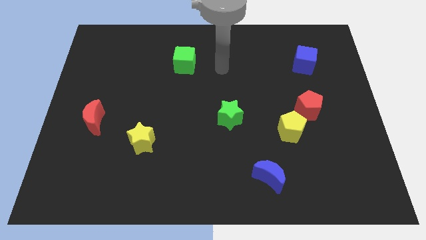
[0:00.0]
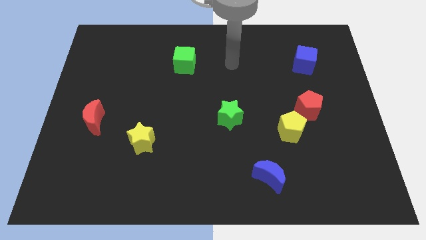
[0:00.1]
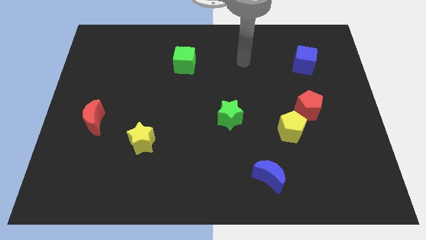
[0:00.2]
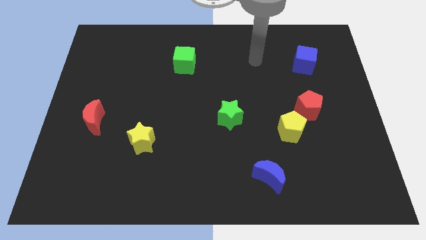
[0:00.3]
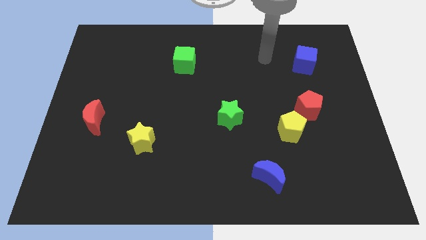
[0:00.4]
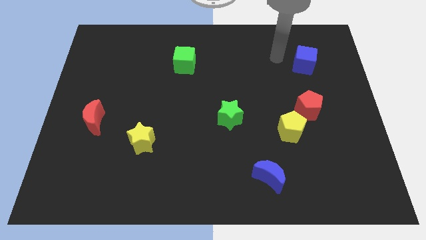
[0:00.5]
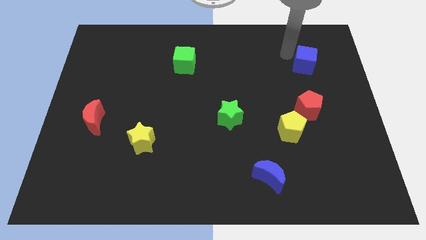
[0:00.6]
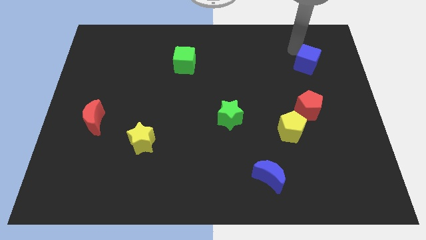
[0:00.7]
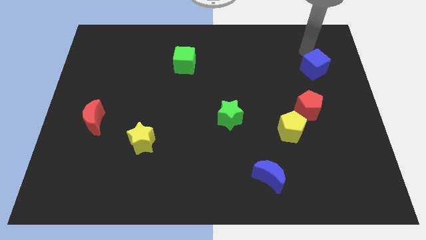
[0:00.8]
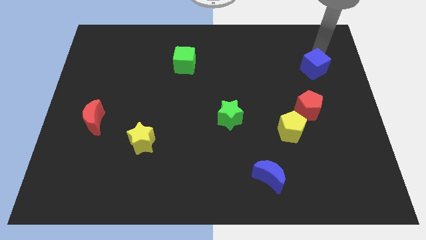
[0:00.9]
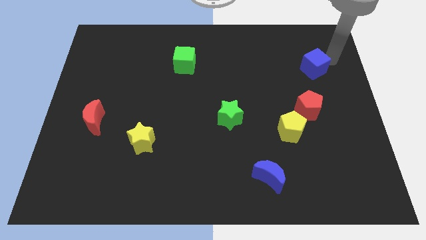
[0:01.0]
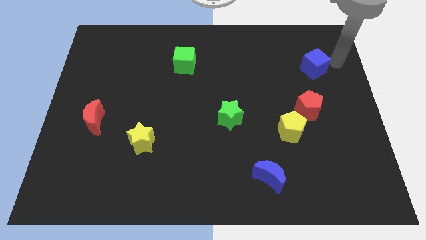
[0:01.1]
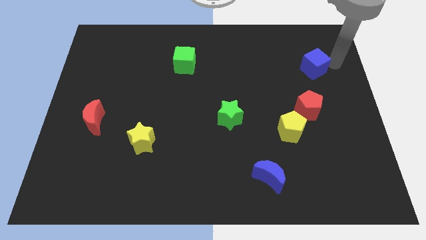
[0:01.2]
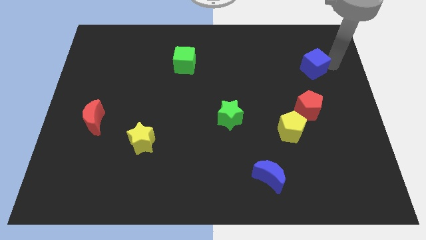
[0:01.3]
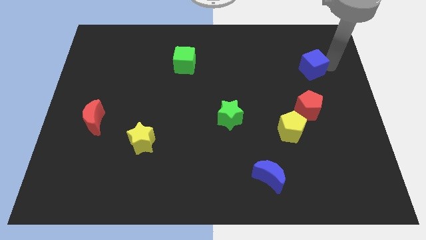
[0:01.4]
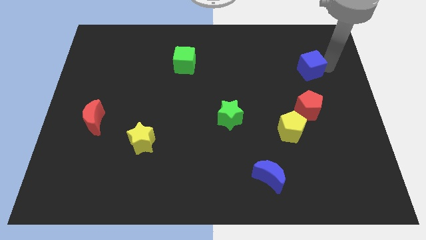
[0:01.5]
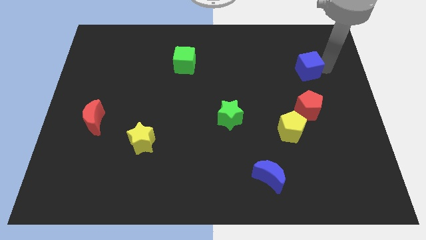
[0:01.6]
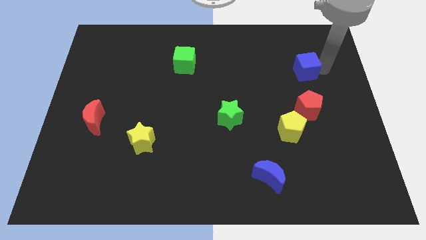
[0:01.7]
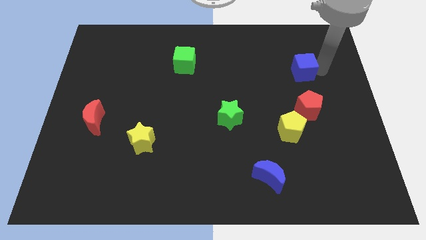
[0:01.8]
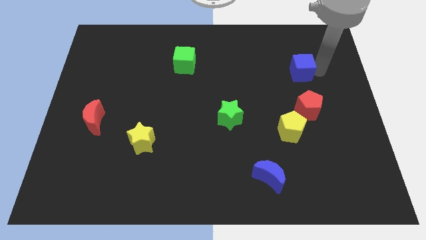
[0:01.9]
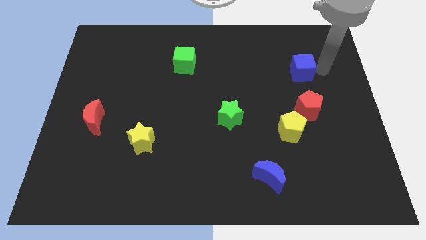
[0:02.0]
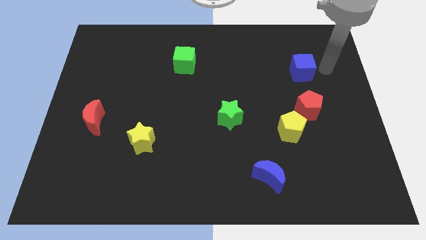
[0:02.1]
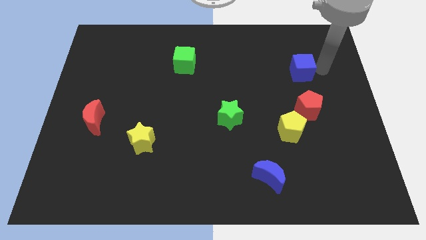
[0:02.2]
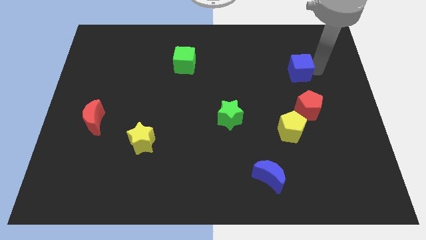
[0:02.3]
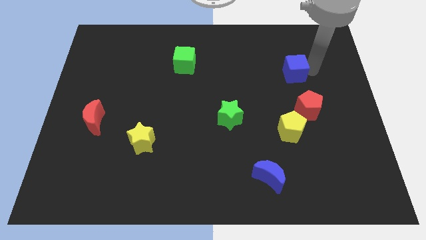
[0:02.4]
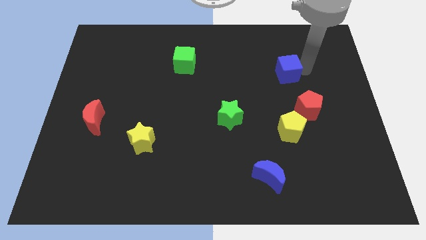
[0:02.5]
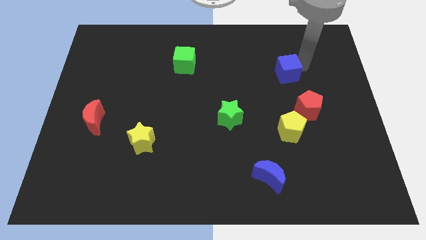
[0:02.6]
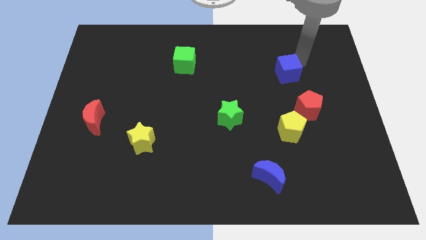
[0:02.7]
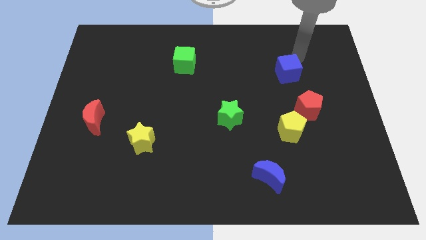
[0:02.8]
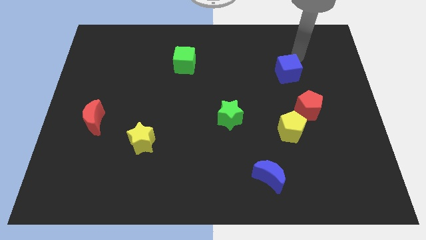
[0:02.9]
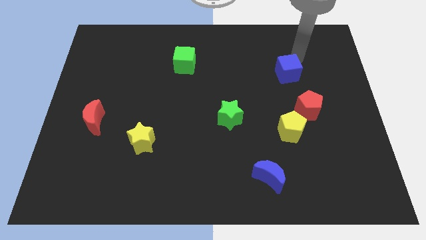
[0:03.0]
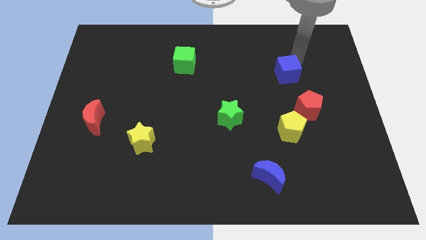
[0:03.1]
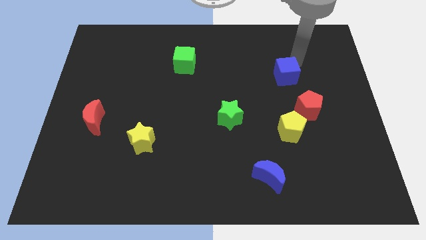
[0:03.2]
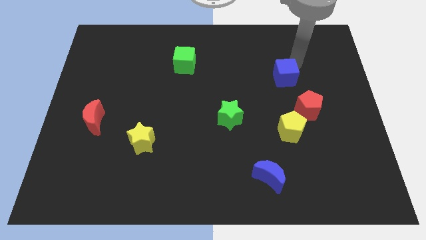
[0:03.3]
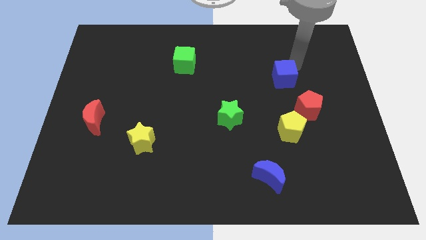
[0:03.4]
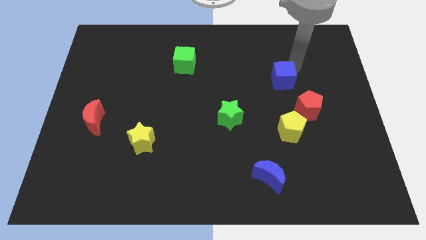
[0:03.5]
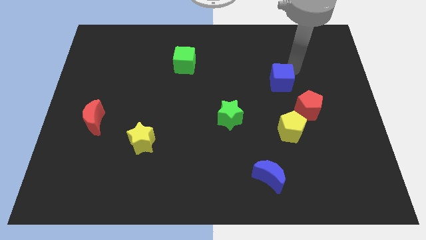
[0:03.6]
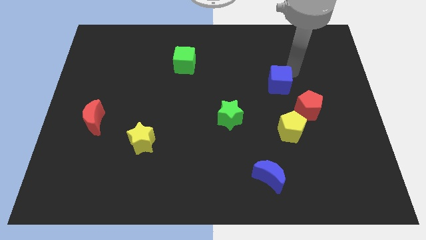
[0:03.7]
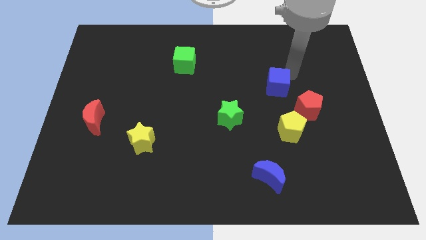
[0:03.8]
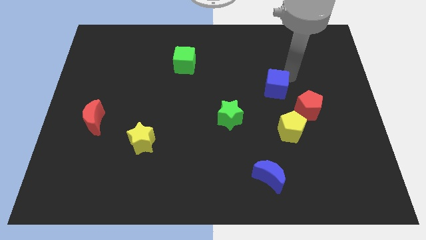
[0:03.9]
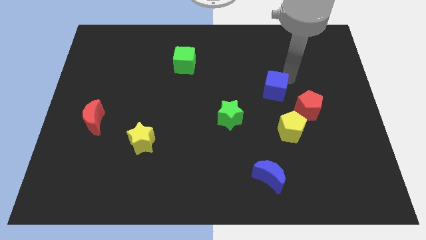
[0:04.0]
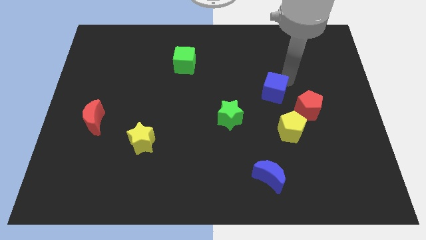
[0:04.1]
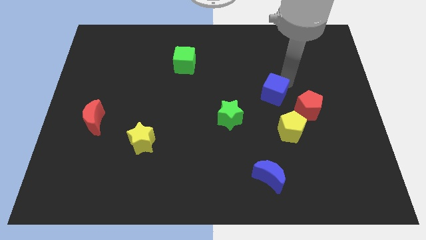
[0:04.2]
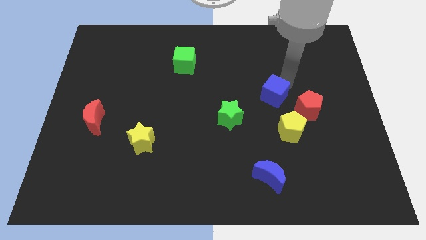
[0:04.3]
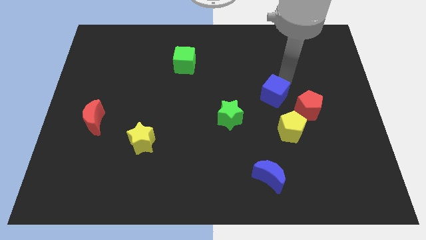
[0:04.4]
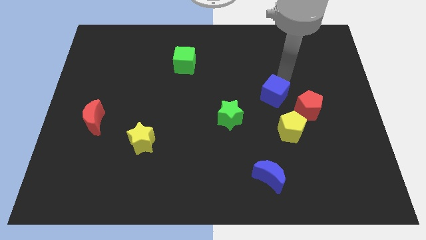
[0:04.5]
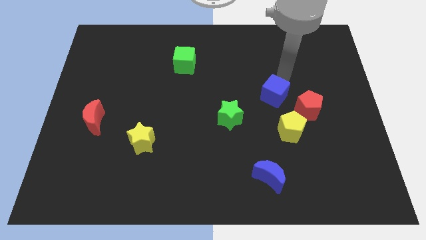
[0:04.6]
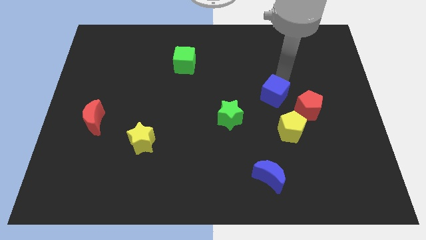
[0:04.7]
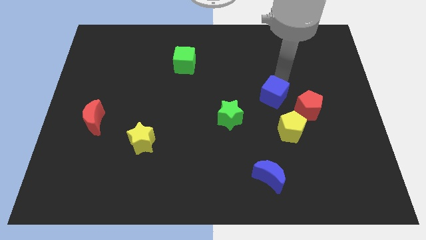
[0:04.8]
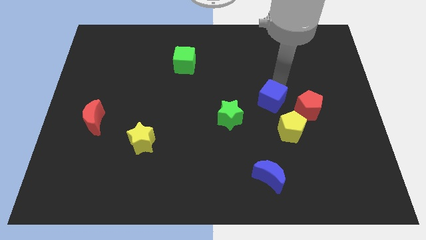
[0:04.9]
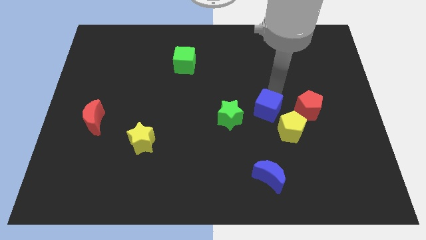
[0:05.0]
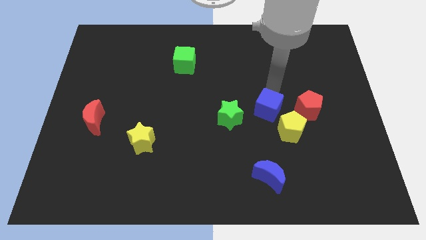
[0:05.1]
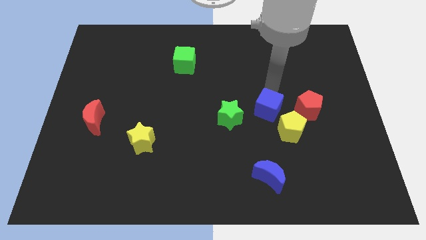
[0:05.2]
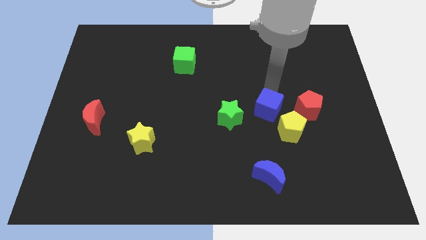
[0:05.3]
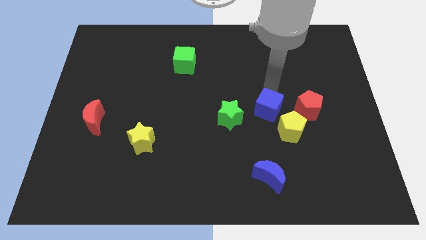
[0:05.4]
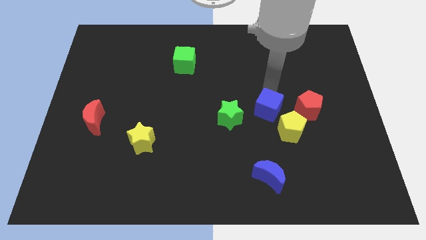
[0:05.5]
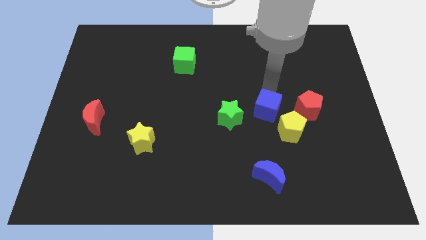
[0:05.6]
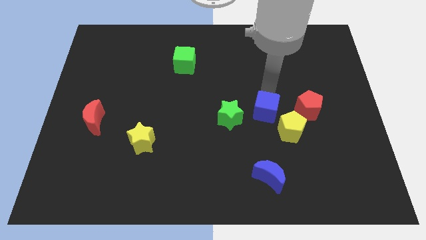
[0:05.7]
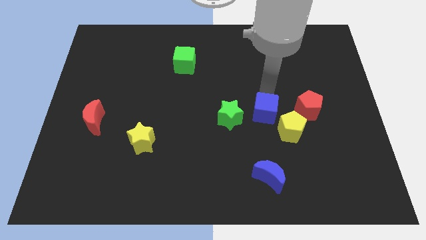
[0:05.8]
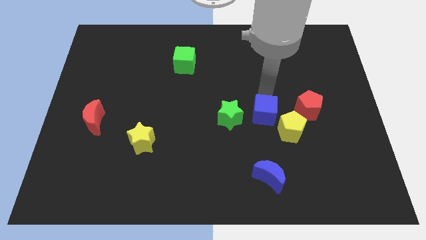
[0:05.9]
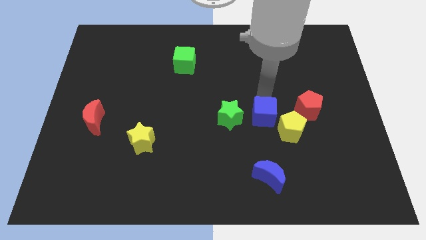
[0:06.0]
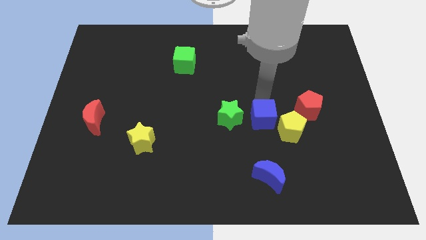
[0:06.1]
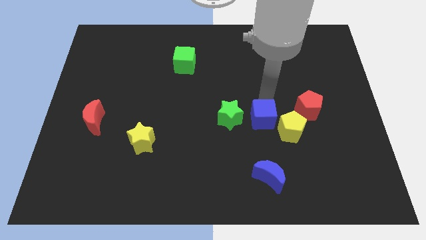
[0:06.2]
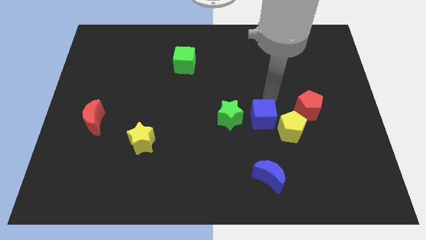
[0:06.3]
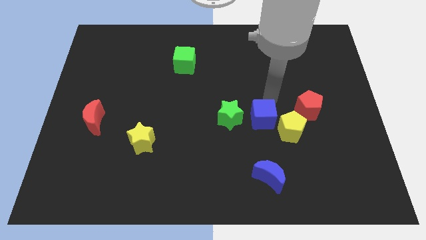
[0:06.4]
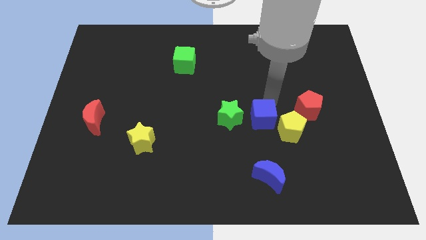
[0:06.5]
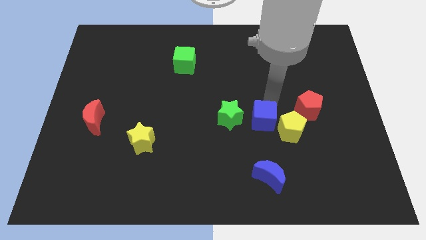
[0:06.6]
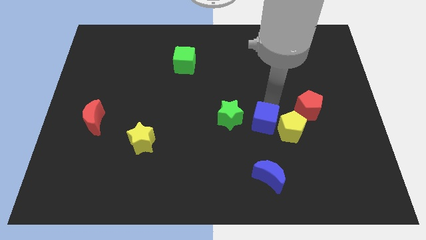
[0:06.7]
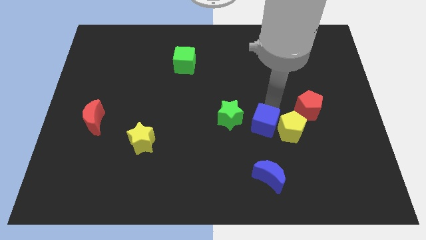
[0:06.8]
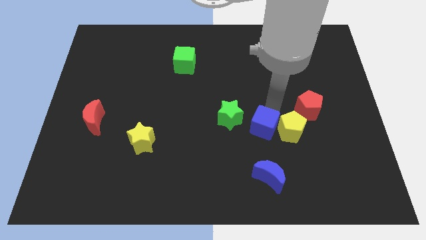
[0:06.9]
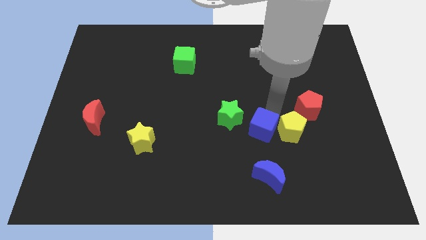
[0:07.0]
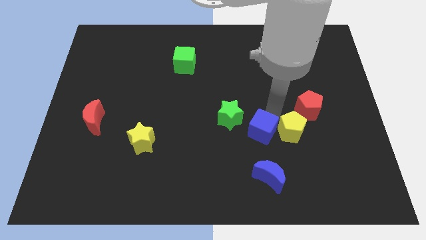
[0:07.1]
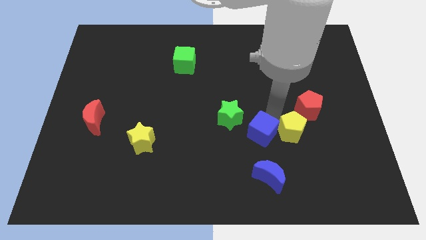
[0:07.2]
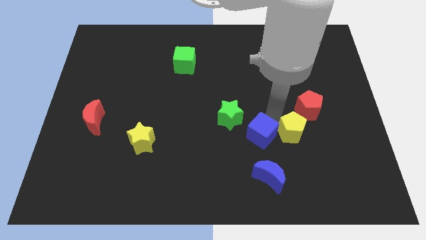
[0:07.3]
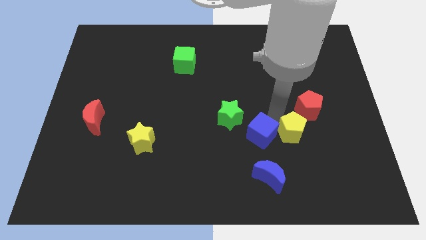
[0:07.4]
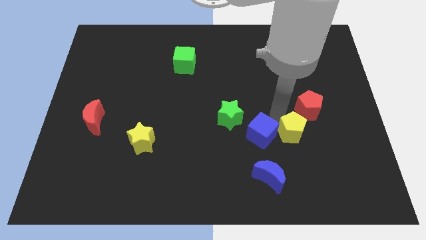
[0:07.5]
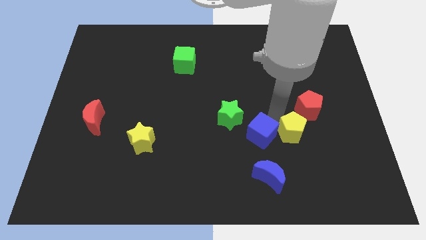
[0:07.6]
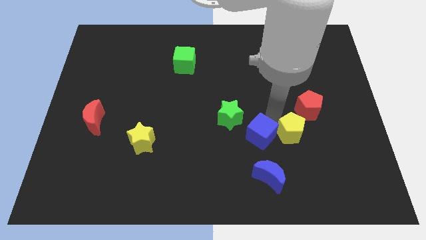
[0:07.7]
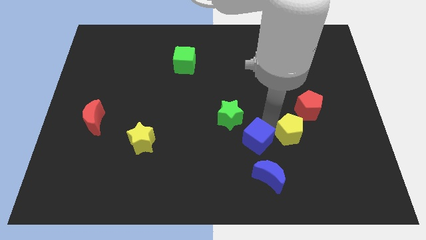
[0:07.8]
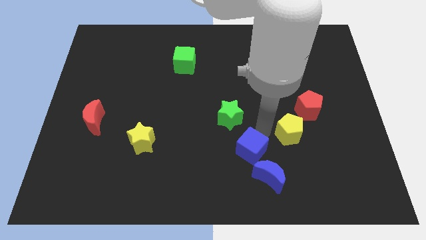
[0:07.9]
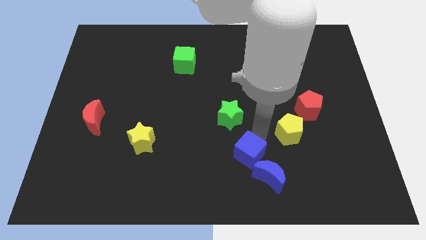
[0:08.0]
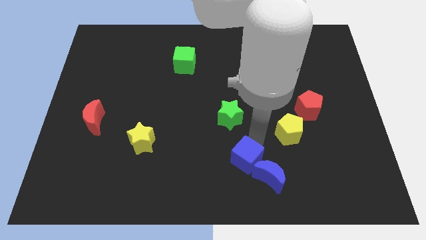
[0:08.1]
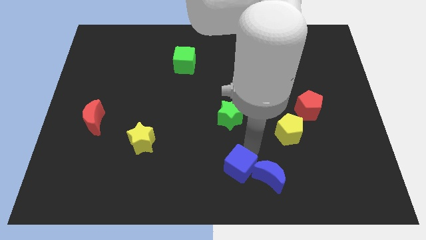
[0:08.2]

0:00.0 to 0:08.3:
push the blue cube to the bottom
